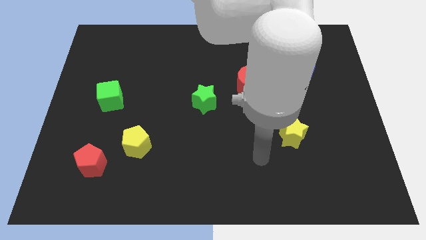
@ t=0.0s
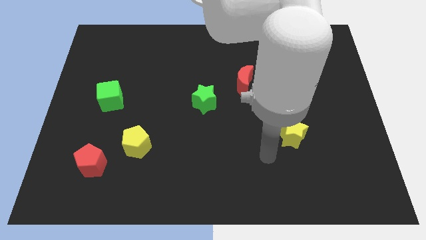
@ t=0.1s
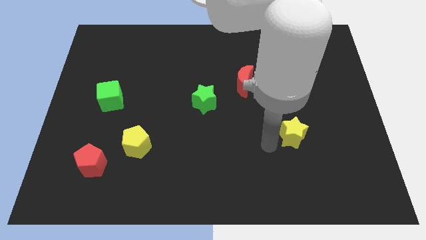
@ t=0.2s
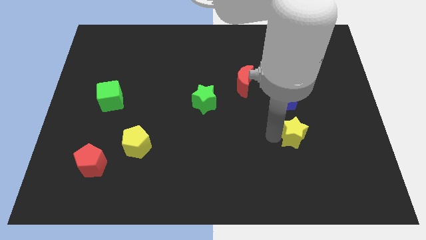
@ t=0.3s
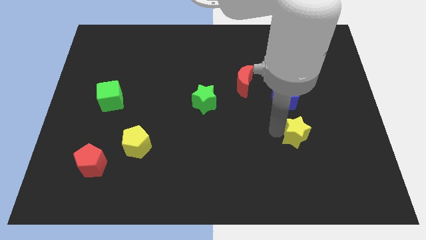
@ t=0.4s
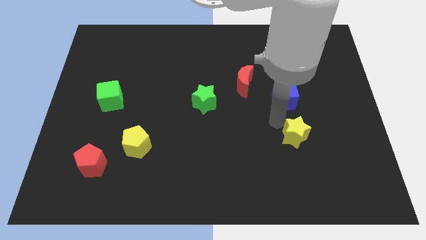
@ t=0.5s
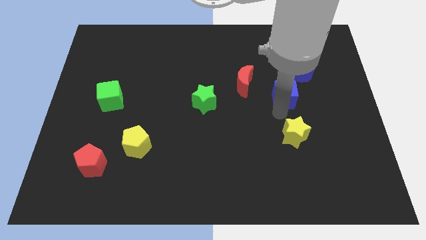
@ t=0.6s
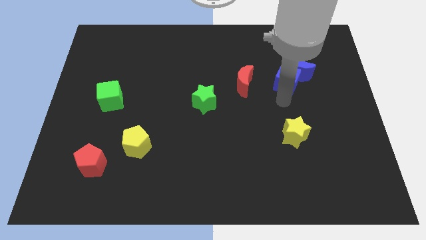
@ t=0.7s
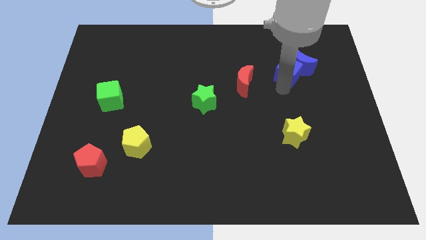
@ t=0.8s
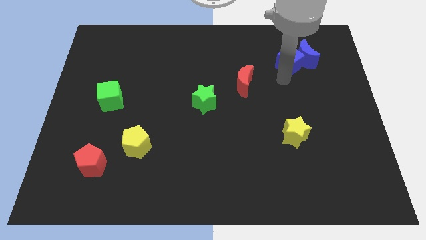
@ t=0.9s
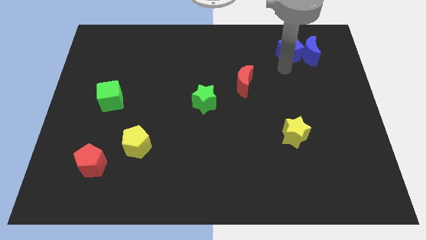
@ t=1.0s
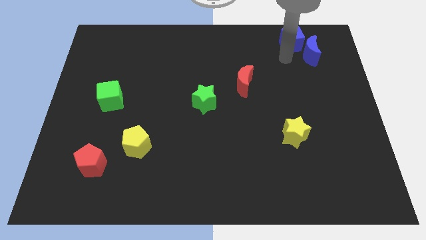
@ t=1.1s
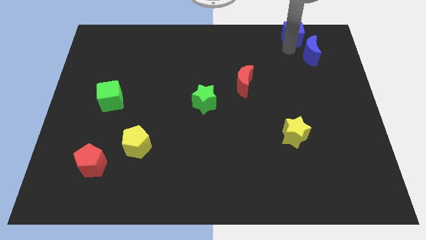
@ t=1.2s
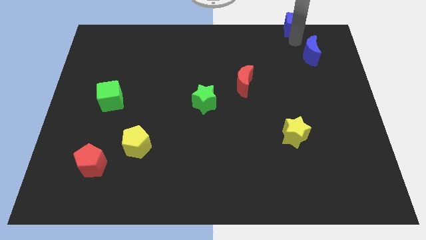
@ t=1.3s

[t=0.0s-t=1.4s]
pull the blue moon apart from the blue cube

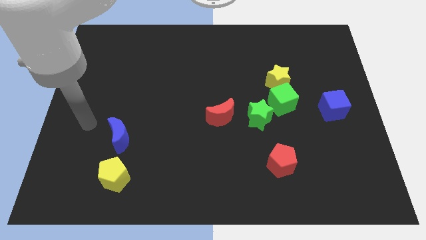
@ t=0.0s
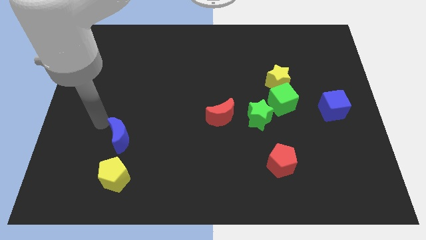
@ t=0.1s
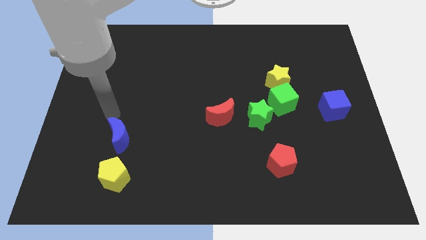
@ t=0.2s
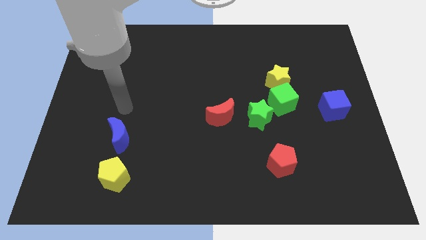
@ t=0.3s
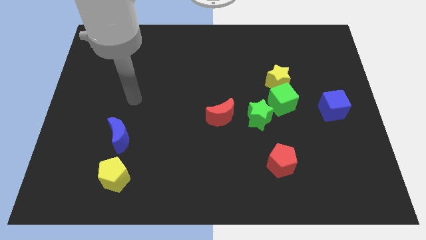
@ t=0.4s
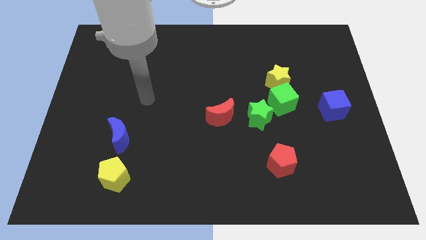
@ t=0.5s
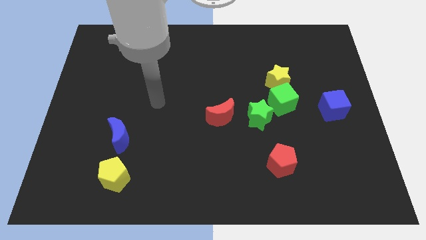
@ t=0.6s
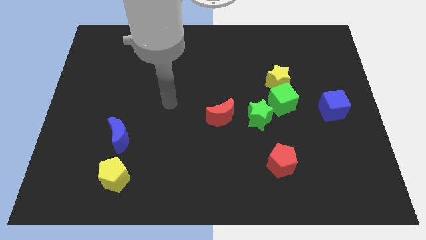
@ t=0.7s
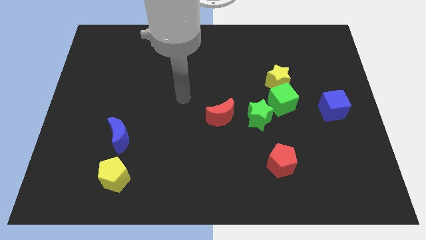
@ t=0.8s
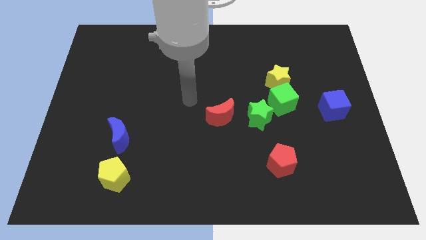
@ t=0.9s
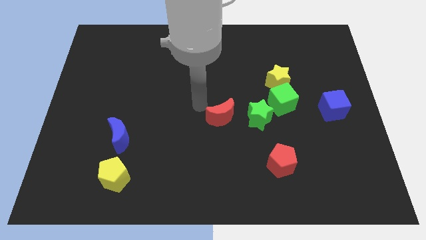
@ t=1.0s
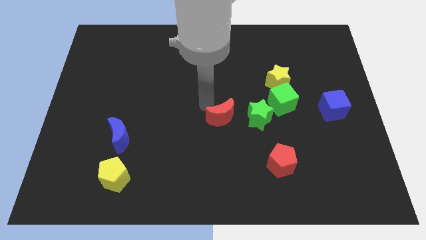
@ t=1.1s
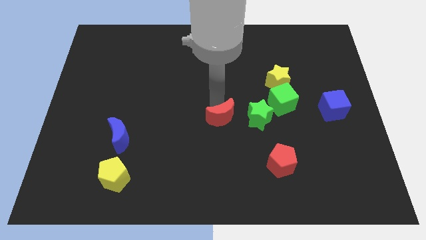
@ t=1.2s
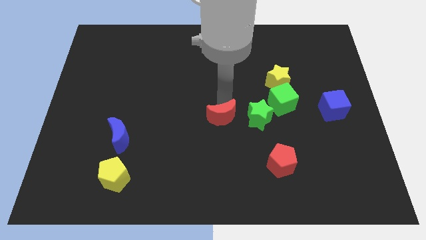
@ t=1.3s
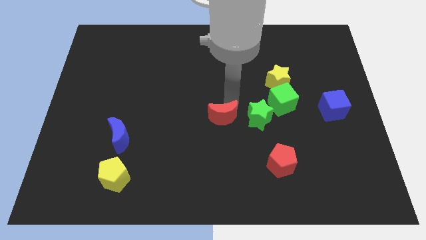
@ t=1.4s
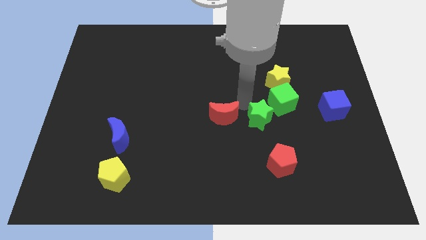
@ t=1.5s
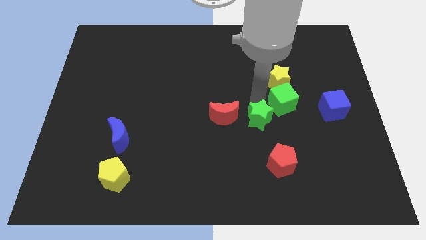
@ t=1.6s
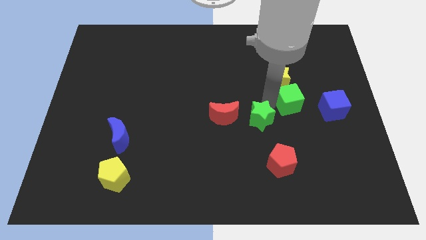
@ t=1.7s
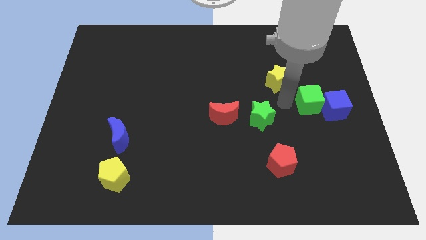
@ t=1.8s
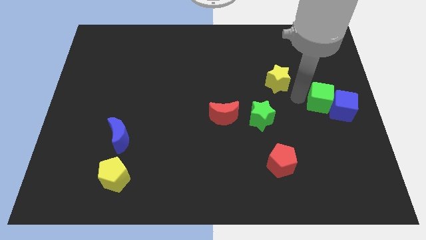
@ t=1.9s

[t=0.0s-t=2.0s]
move the yellow star away from the green cube

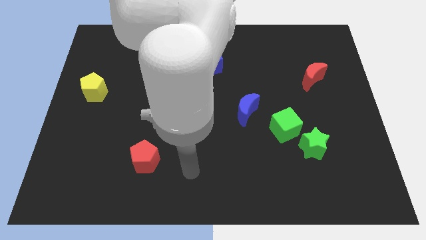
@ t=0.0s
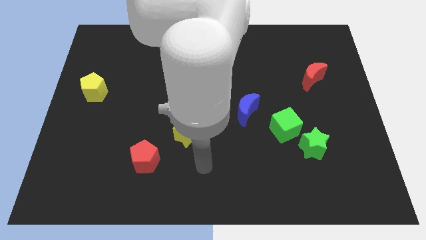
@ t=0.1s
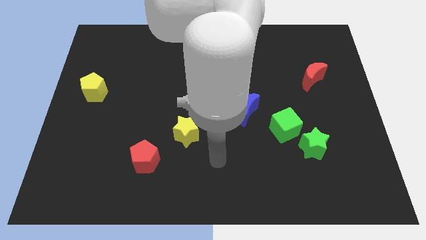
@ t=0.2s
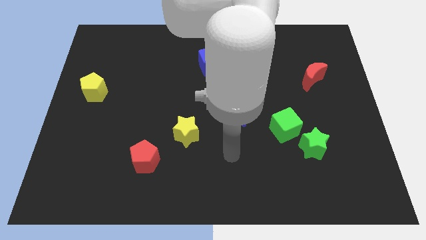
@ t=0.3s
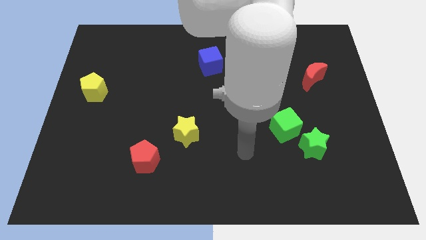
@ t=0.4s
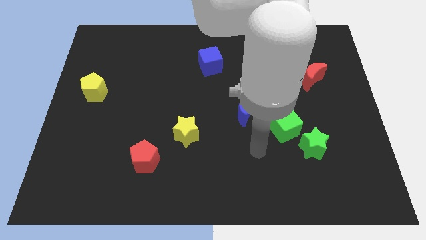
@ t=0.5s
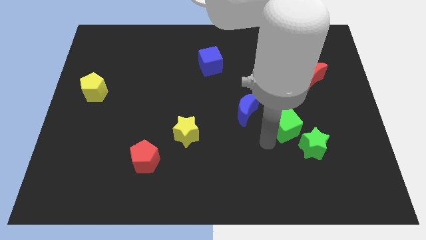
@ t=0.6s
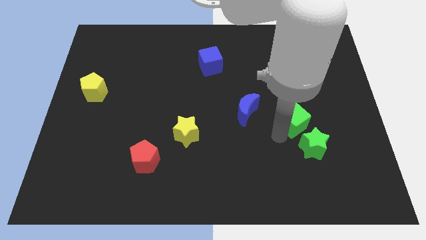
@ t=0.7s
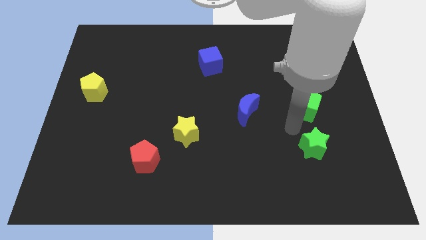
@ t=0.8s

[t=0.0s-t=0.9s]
separate the green star from the green cube

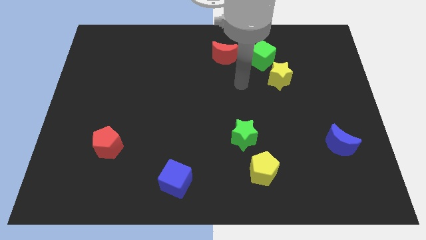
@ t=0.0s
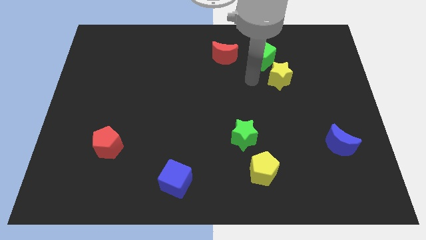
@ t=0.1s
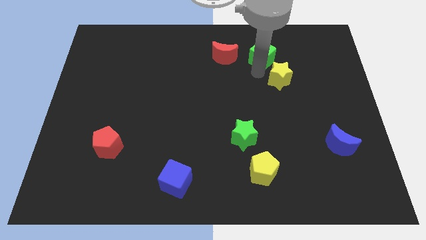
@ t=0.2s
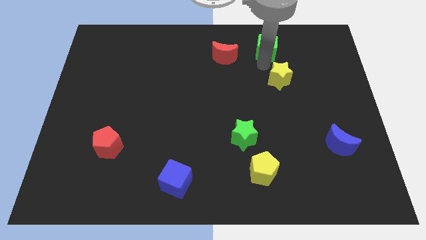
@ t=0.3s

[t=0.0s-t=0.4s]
separate the yellow star from the green cube

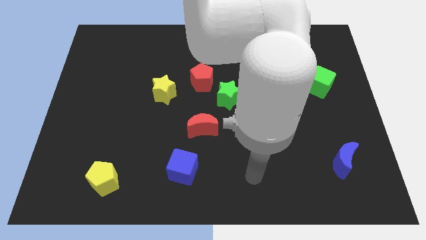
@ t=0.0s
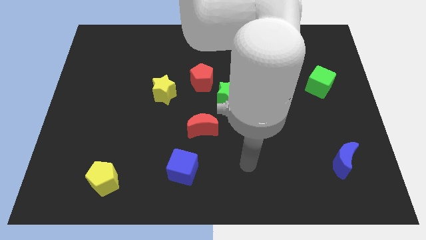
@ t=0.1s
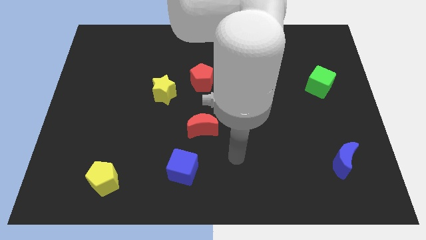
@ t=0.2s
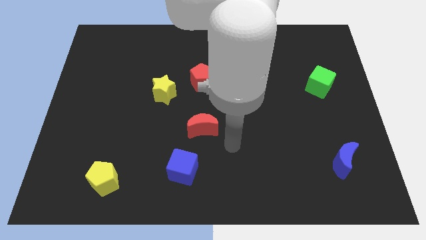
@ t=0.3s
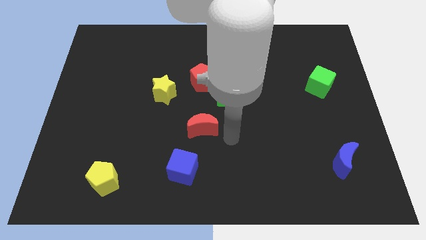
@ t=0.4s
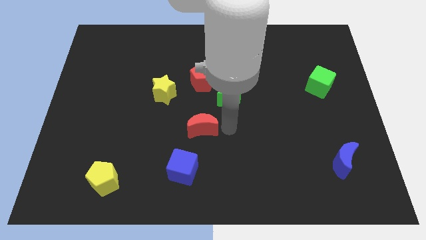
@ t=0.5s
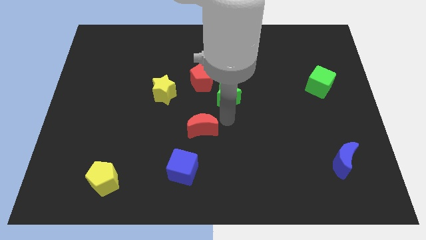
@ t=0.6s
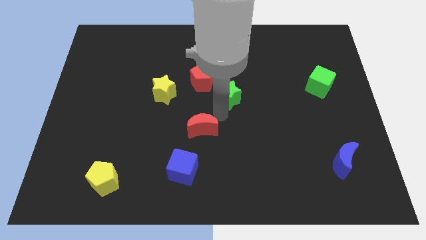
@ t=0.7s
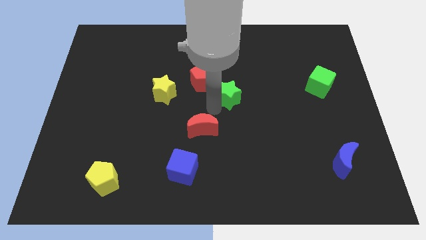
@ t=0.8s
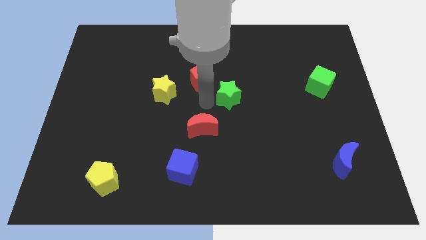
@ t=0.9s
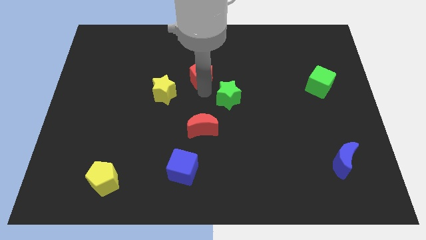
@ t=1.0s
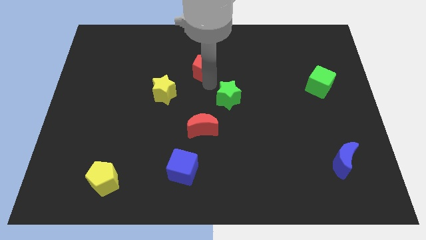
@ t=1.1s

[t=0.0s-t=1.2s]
separate the green star from the red pentagon

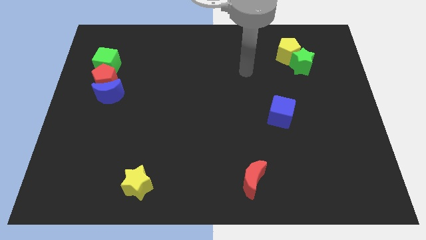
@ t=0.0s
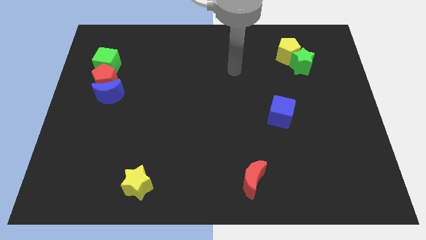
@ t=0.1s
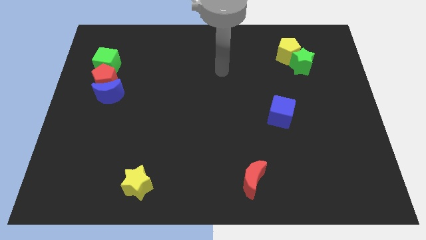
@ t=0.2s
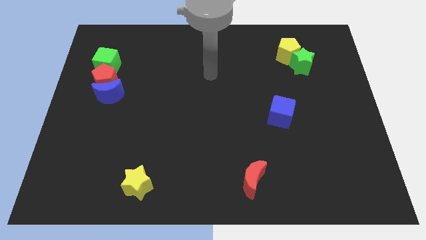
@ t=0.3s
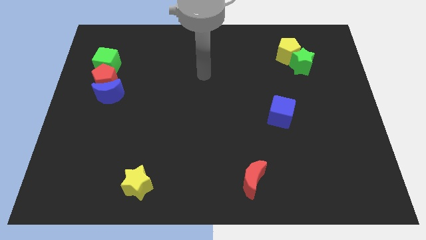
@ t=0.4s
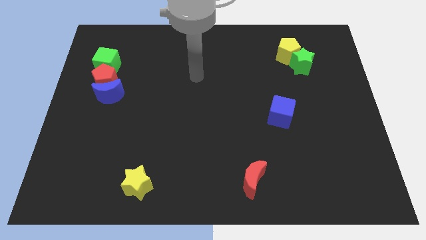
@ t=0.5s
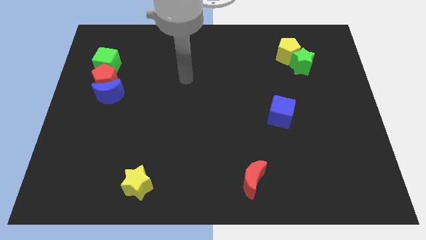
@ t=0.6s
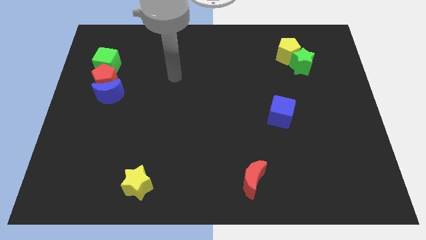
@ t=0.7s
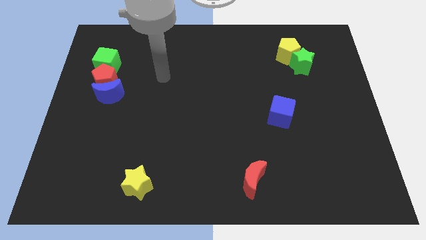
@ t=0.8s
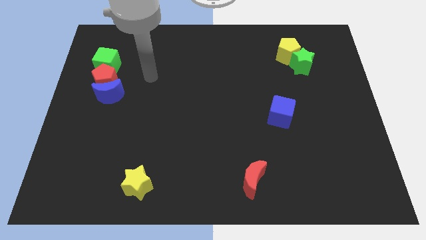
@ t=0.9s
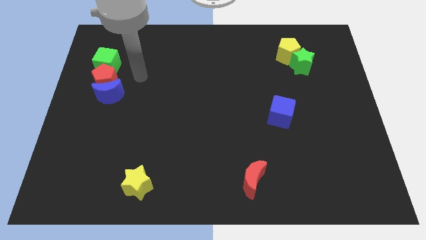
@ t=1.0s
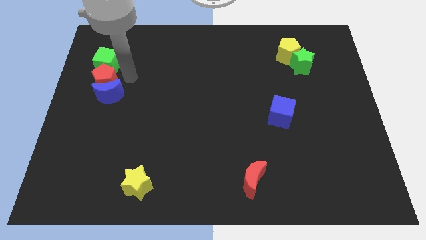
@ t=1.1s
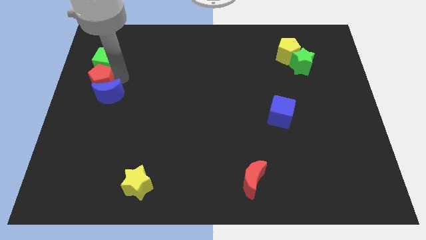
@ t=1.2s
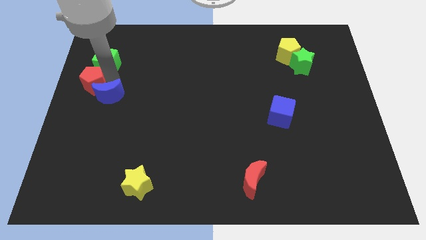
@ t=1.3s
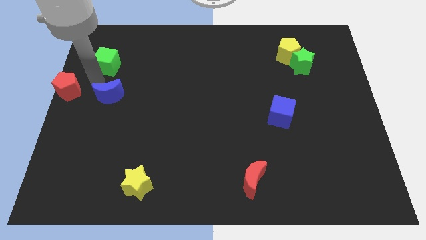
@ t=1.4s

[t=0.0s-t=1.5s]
separate the blue moon from the red pentagon

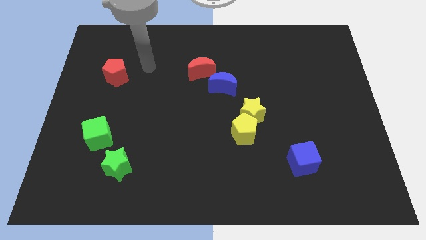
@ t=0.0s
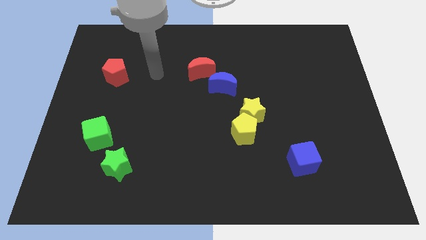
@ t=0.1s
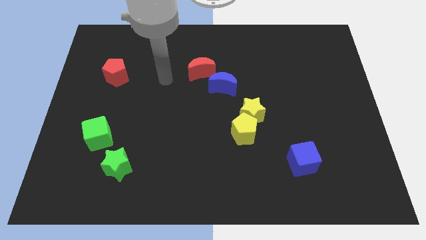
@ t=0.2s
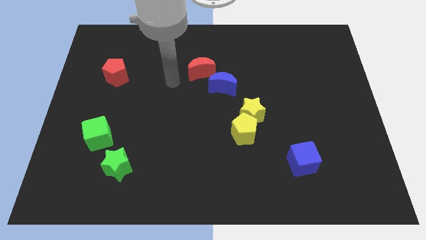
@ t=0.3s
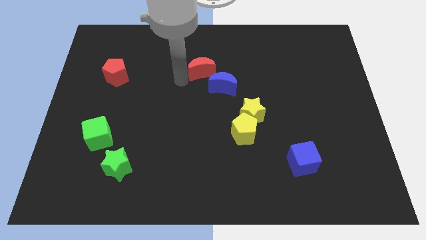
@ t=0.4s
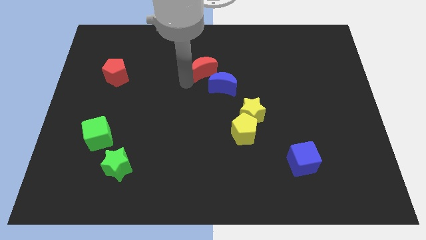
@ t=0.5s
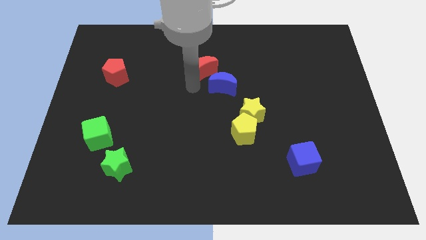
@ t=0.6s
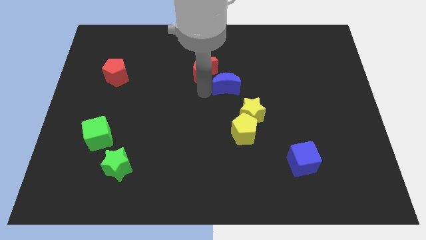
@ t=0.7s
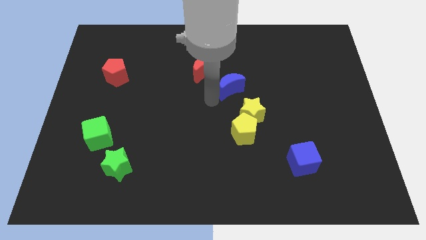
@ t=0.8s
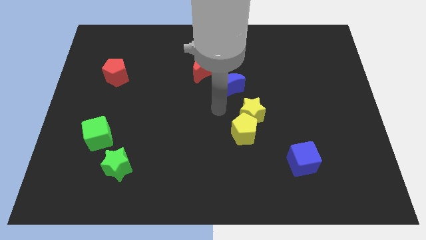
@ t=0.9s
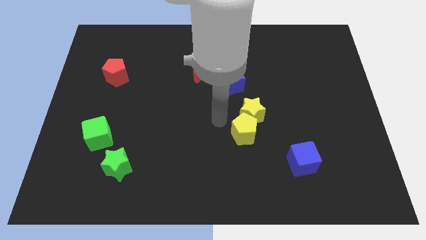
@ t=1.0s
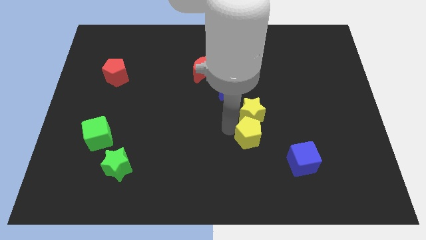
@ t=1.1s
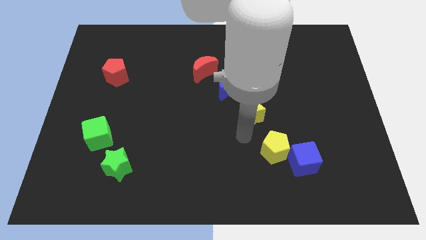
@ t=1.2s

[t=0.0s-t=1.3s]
separate the yellow star from the yellow pentagon

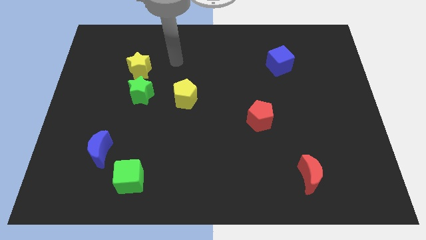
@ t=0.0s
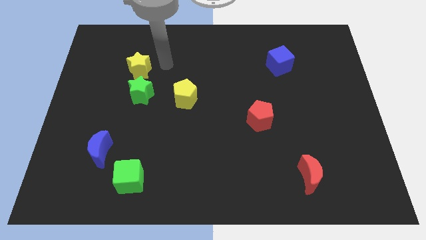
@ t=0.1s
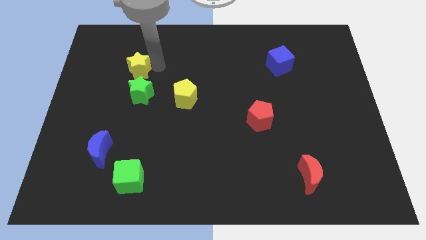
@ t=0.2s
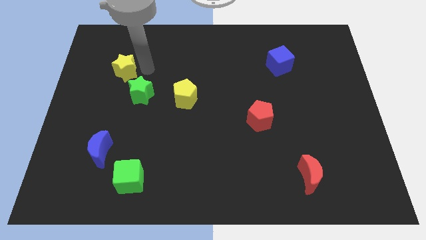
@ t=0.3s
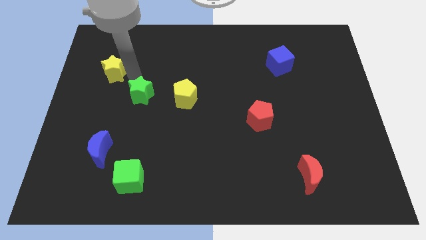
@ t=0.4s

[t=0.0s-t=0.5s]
move the green star away from the yellow star
